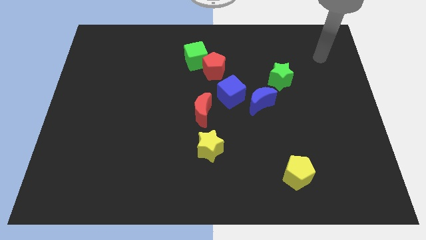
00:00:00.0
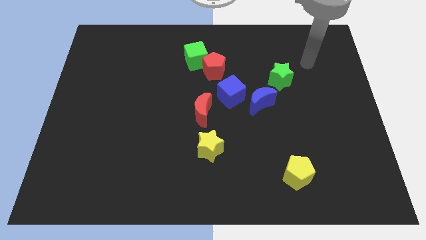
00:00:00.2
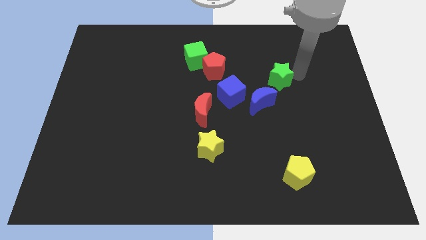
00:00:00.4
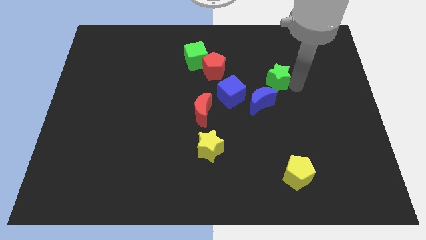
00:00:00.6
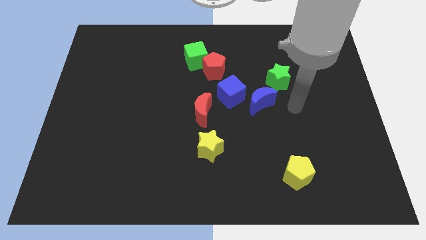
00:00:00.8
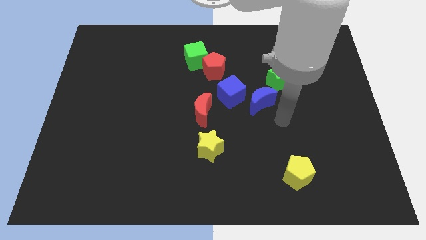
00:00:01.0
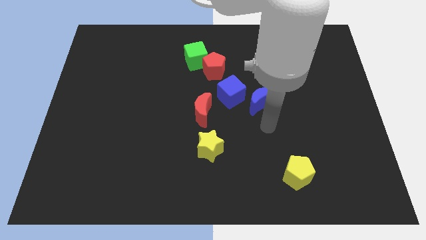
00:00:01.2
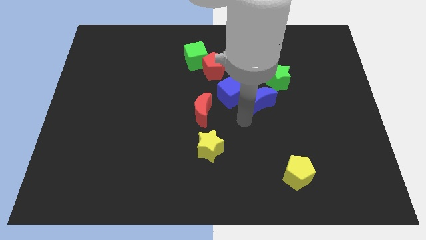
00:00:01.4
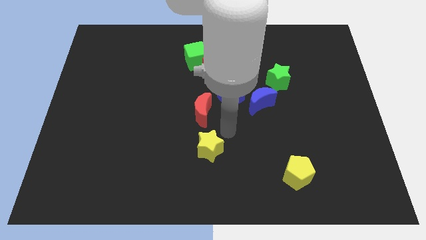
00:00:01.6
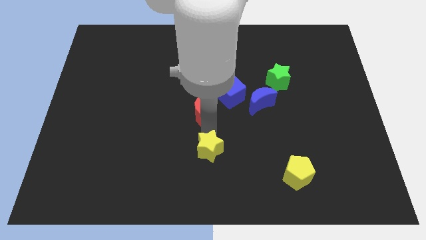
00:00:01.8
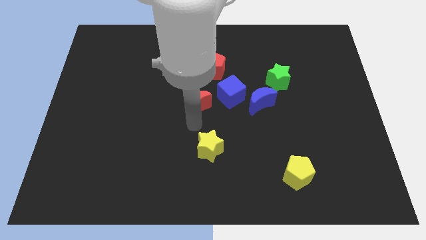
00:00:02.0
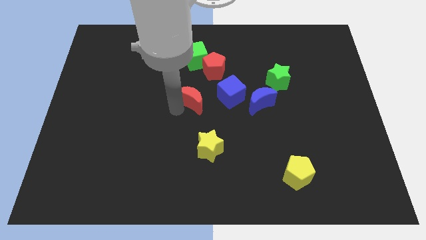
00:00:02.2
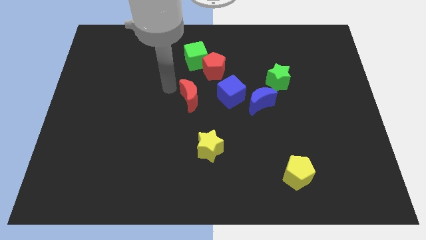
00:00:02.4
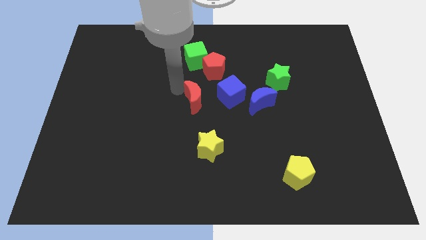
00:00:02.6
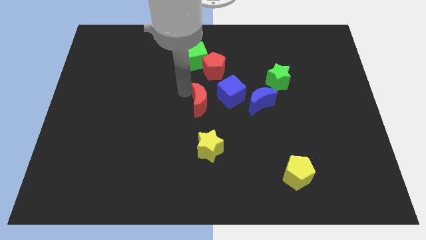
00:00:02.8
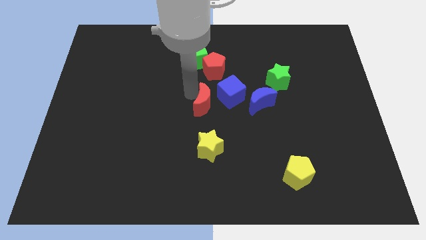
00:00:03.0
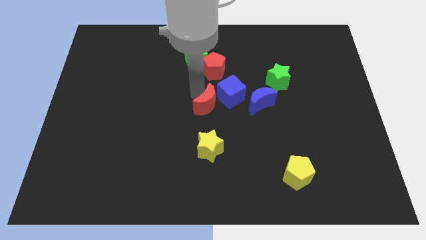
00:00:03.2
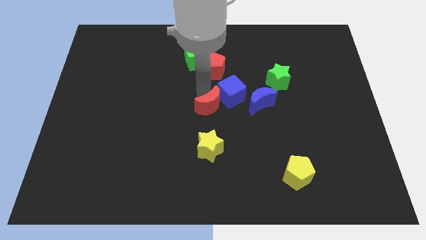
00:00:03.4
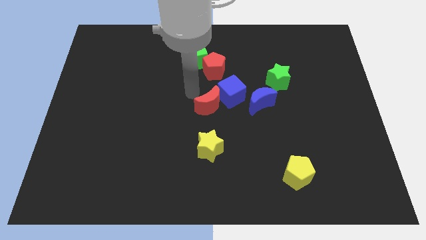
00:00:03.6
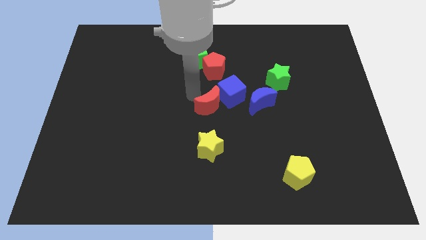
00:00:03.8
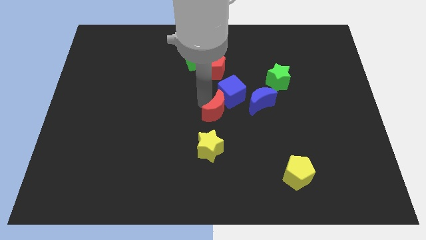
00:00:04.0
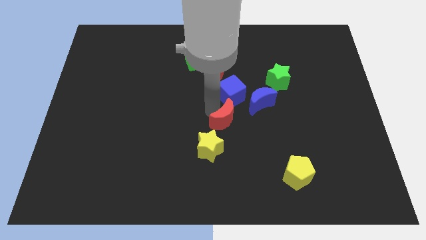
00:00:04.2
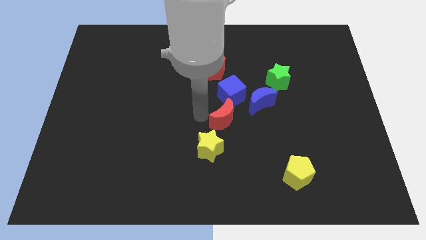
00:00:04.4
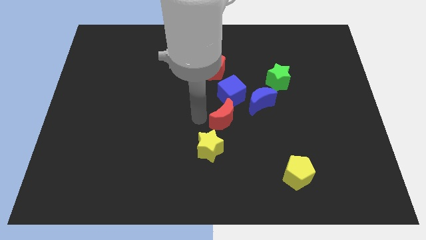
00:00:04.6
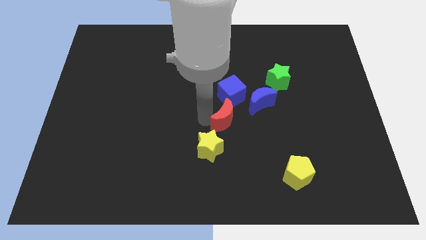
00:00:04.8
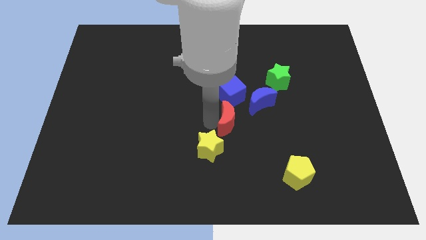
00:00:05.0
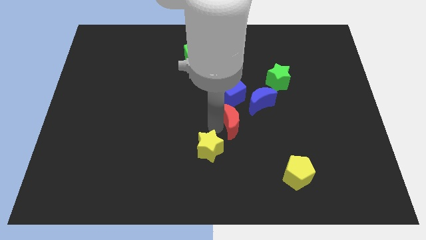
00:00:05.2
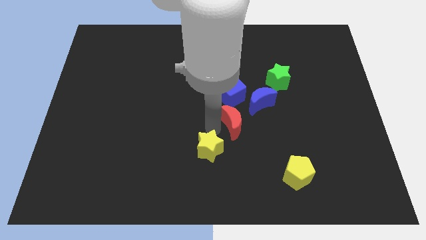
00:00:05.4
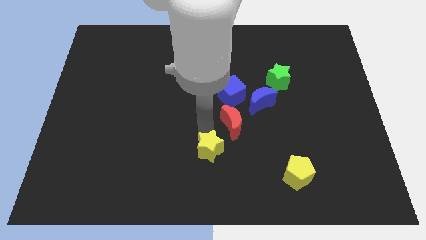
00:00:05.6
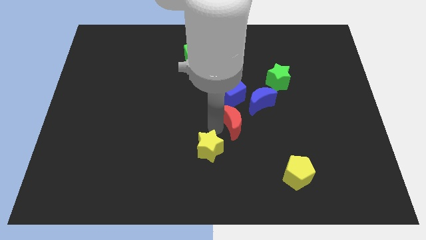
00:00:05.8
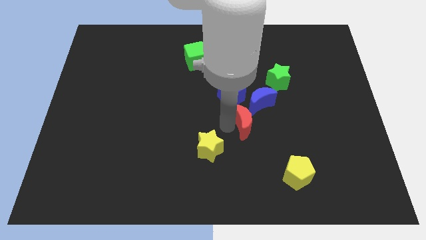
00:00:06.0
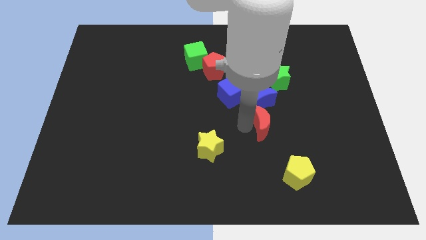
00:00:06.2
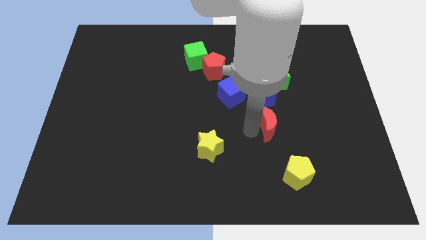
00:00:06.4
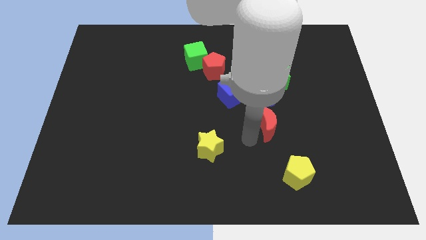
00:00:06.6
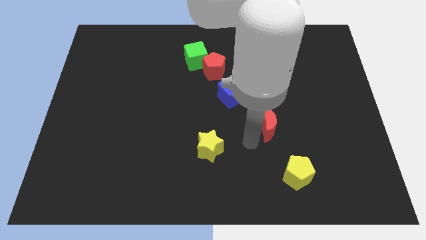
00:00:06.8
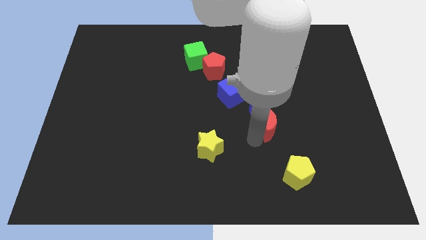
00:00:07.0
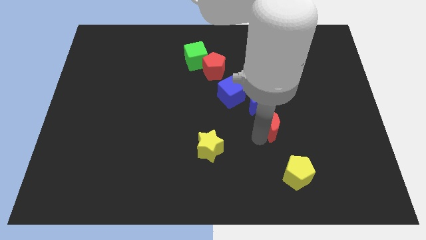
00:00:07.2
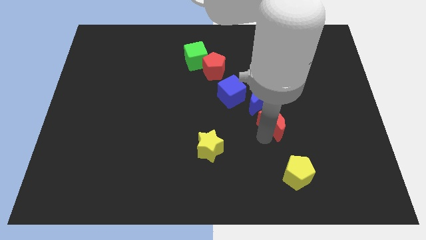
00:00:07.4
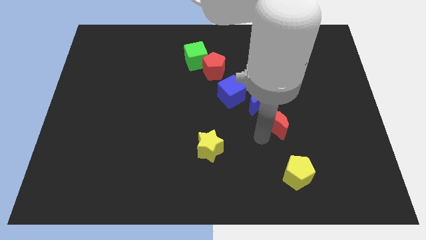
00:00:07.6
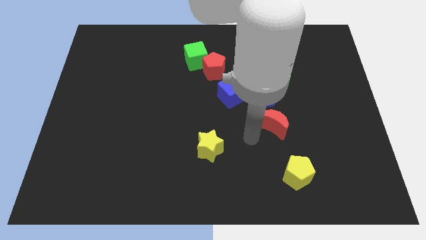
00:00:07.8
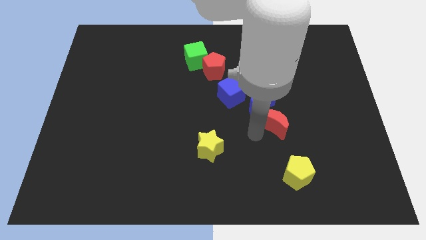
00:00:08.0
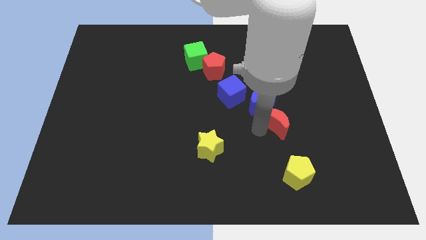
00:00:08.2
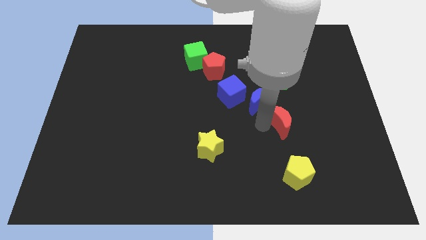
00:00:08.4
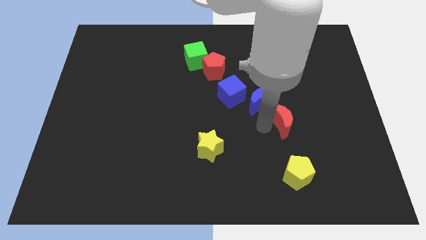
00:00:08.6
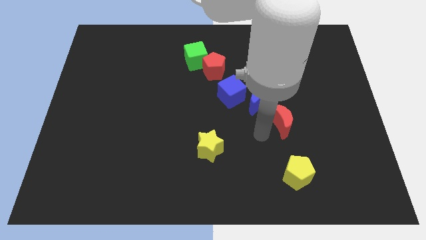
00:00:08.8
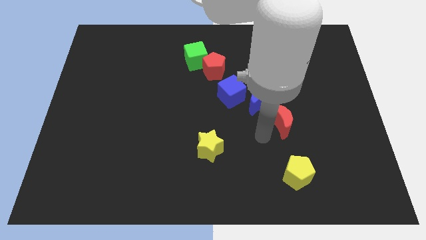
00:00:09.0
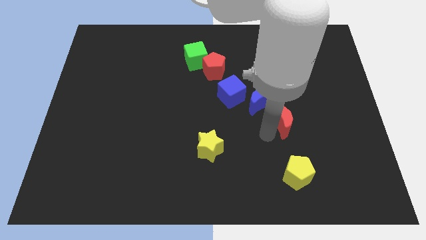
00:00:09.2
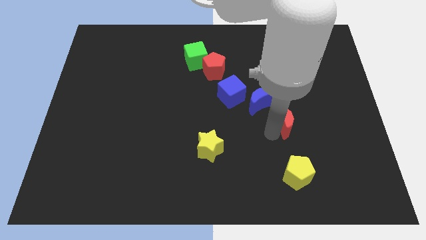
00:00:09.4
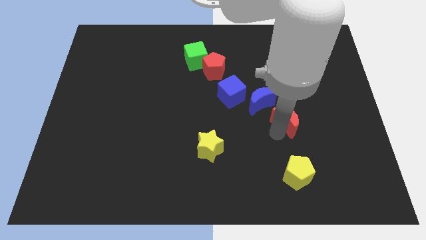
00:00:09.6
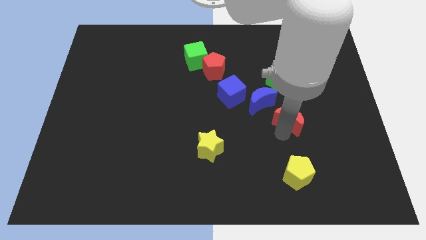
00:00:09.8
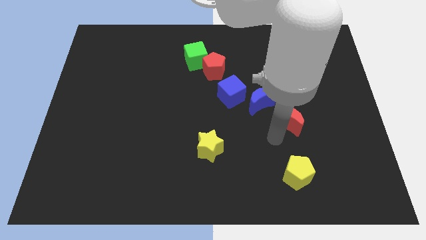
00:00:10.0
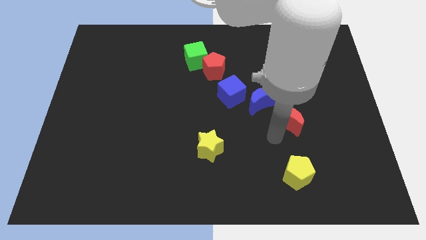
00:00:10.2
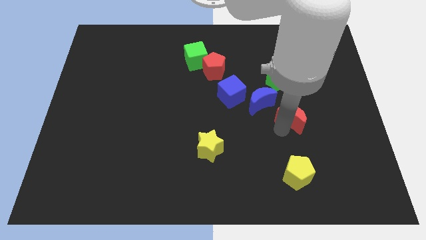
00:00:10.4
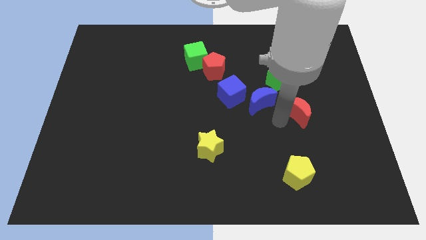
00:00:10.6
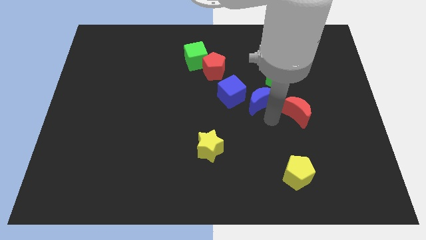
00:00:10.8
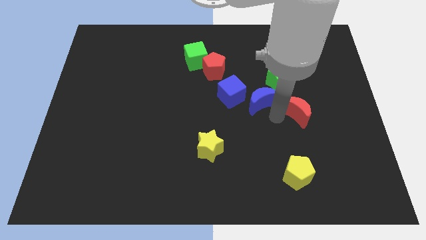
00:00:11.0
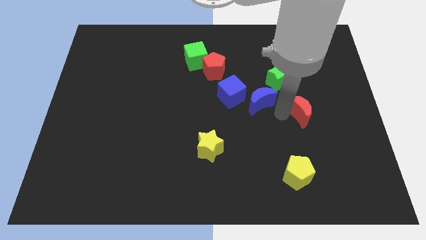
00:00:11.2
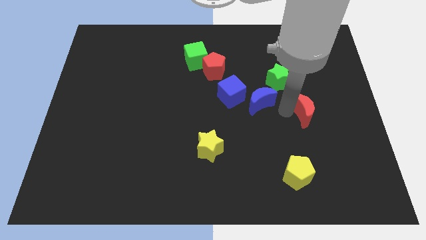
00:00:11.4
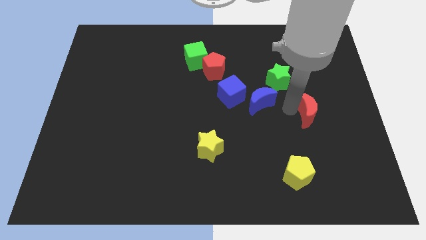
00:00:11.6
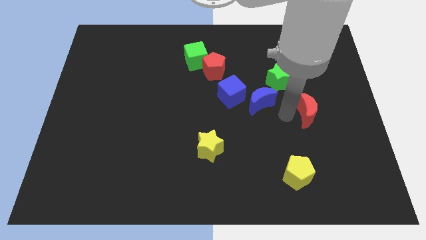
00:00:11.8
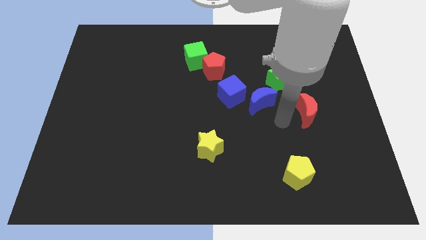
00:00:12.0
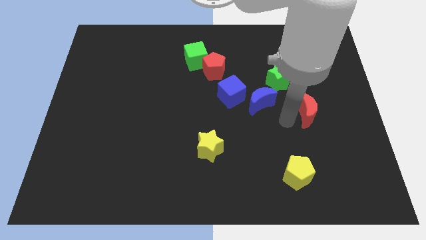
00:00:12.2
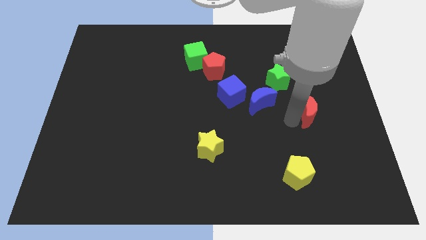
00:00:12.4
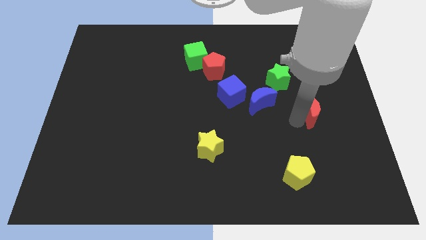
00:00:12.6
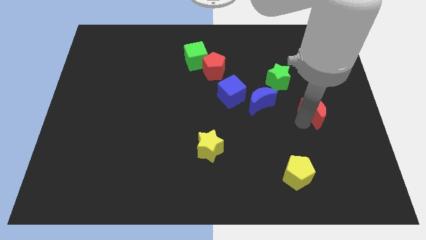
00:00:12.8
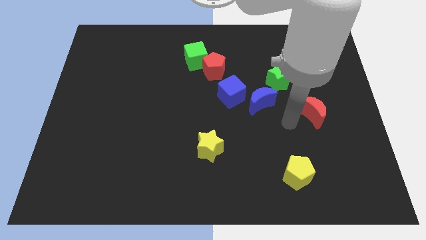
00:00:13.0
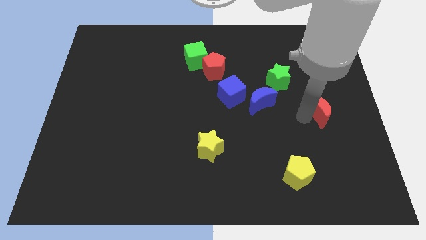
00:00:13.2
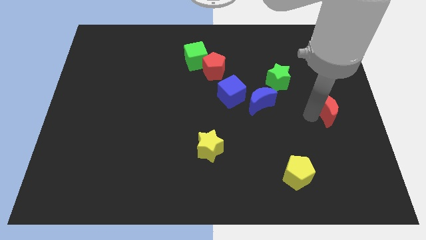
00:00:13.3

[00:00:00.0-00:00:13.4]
slide the red moon to the center right
